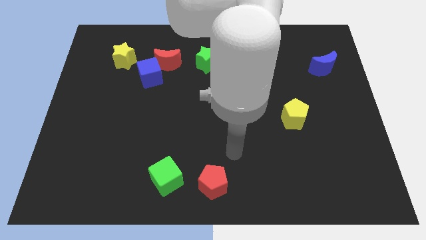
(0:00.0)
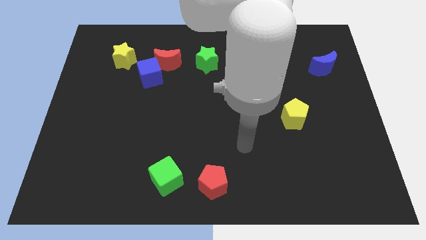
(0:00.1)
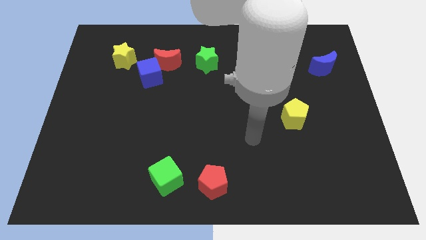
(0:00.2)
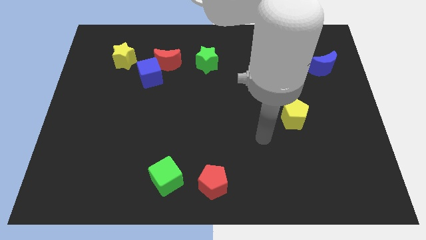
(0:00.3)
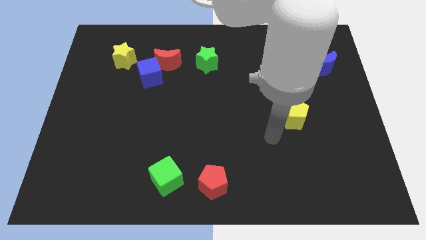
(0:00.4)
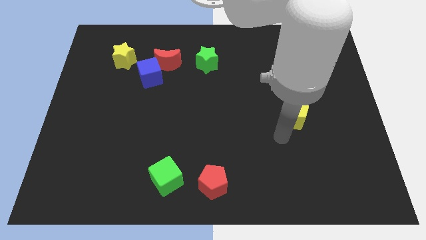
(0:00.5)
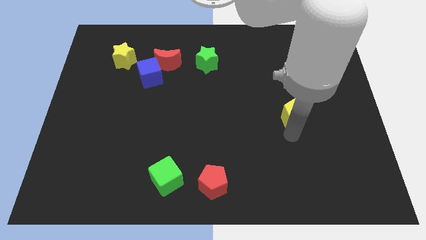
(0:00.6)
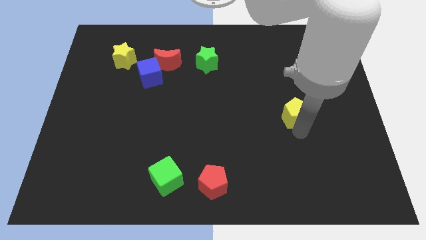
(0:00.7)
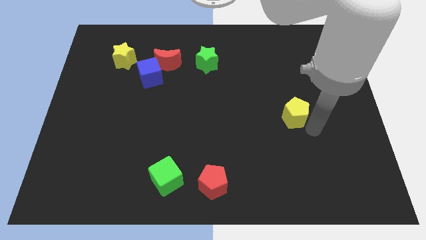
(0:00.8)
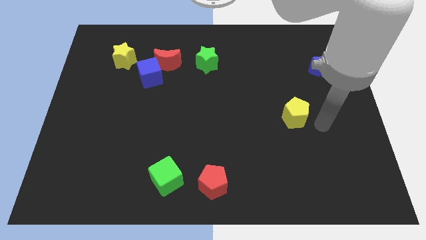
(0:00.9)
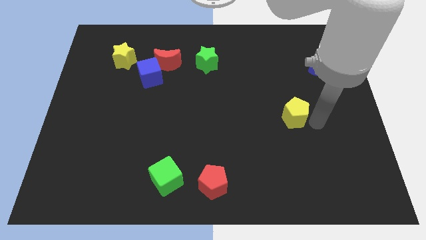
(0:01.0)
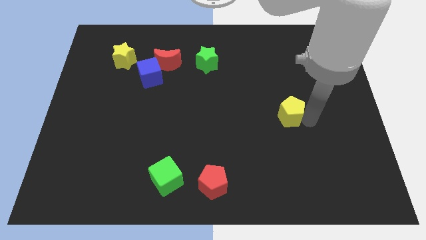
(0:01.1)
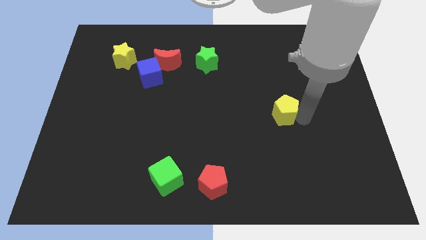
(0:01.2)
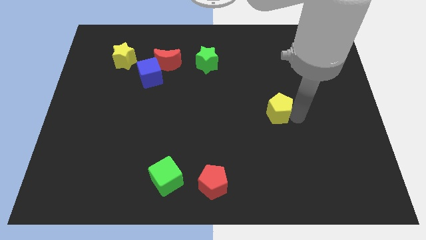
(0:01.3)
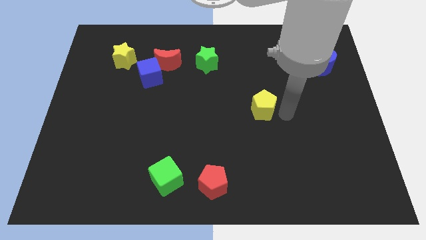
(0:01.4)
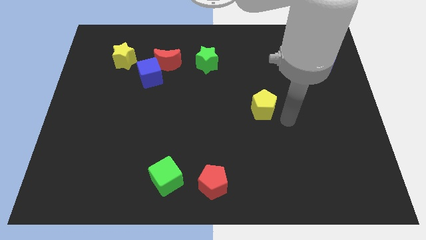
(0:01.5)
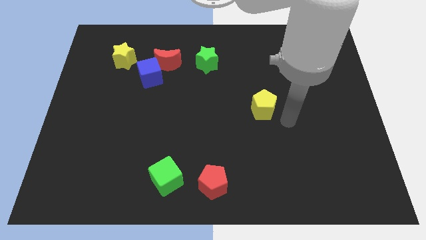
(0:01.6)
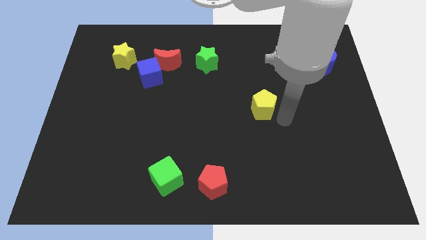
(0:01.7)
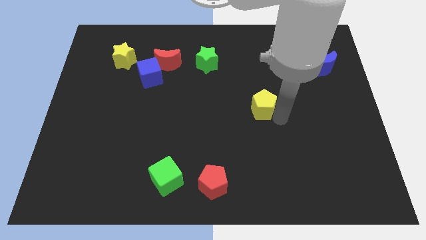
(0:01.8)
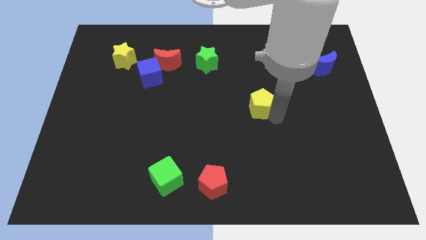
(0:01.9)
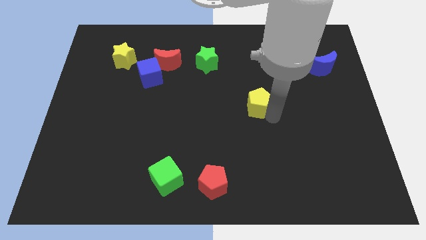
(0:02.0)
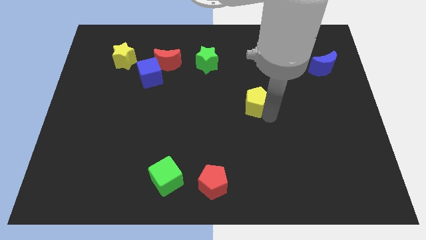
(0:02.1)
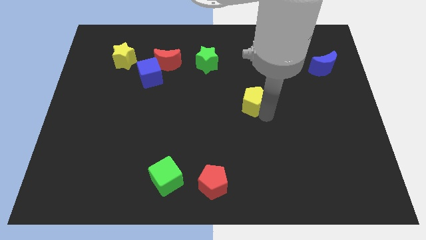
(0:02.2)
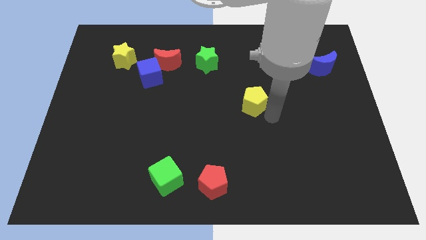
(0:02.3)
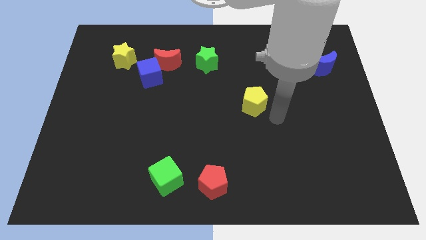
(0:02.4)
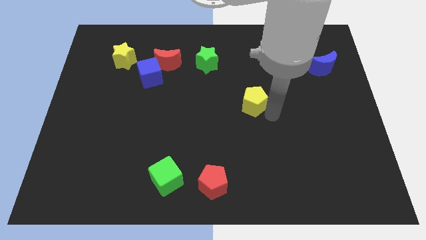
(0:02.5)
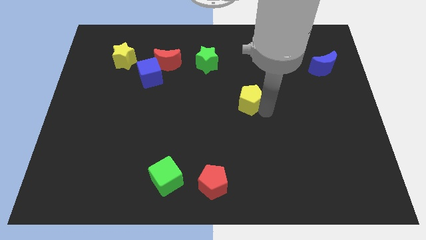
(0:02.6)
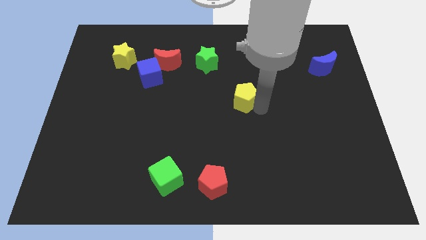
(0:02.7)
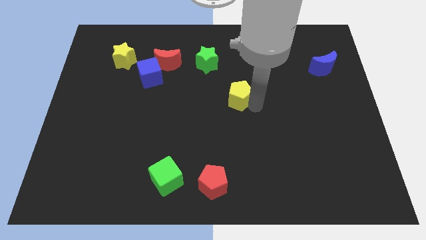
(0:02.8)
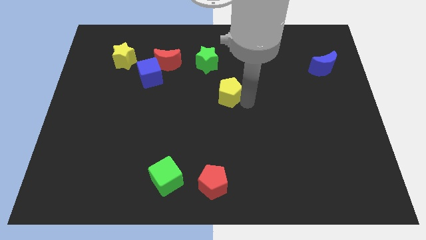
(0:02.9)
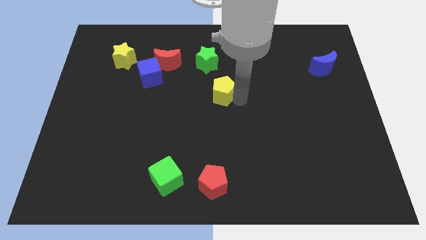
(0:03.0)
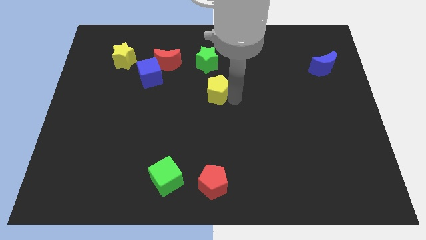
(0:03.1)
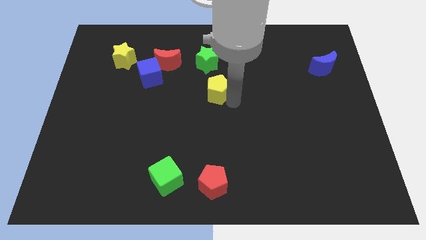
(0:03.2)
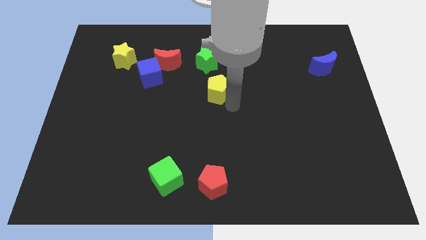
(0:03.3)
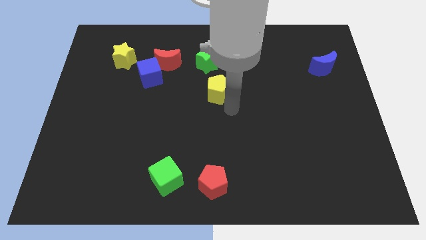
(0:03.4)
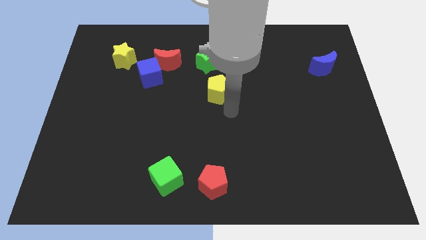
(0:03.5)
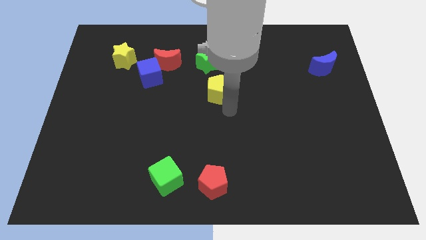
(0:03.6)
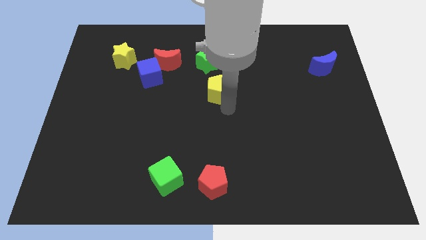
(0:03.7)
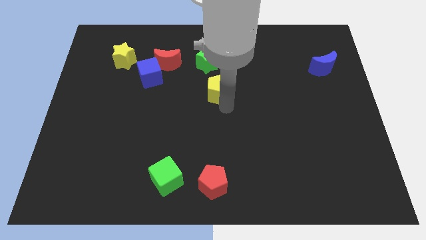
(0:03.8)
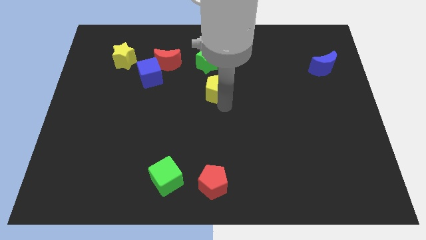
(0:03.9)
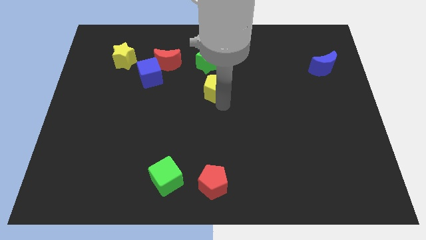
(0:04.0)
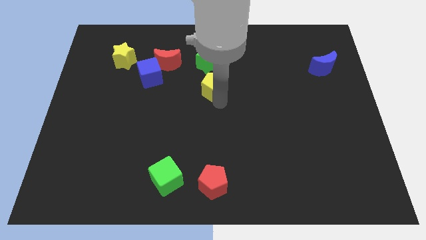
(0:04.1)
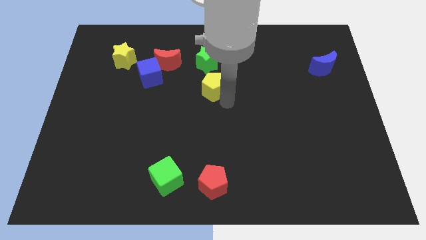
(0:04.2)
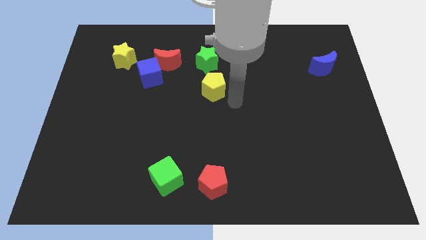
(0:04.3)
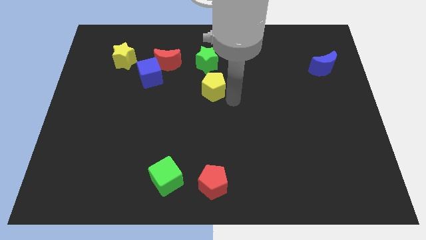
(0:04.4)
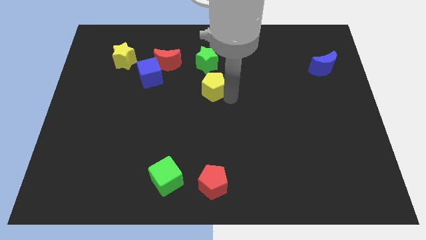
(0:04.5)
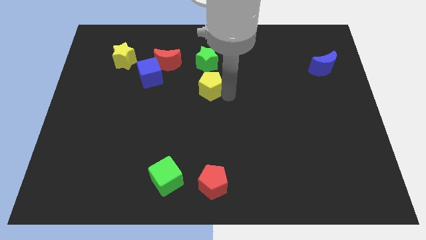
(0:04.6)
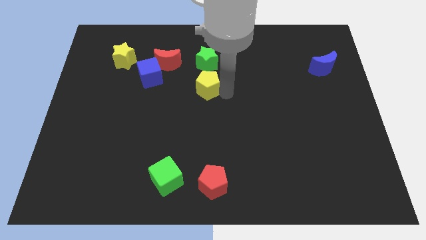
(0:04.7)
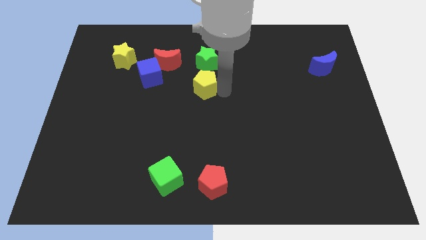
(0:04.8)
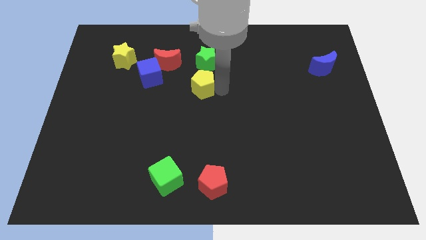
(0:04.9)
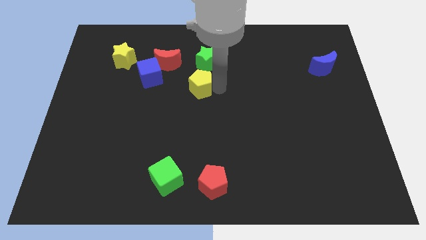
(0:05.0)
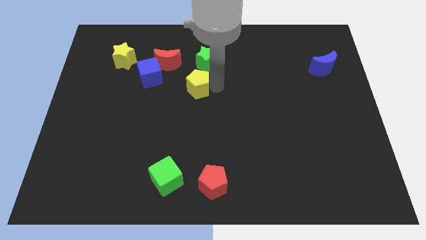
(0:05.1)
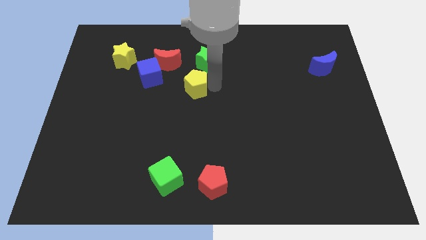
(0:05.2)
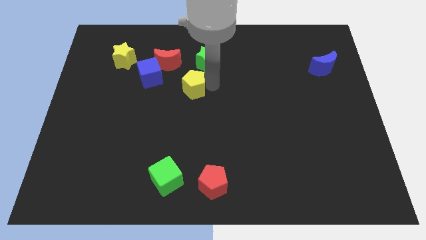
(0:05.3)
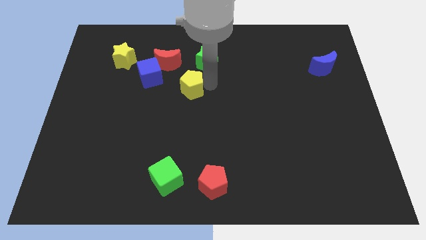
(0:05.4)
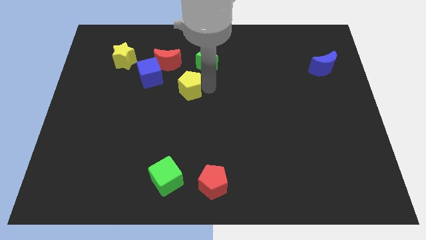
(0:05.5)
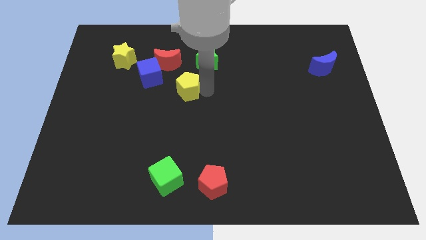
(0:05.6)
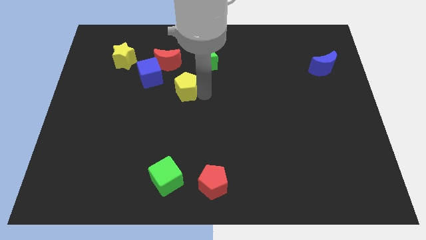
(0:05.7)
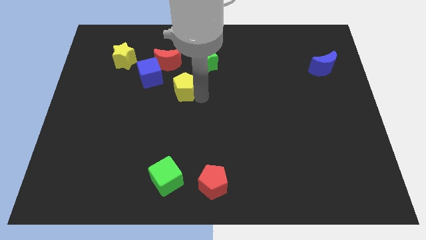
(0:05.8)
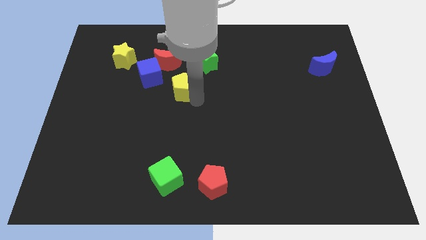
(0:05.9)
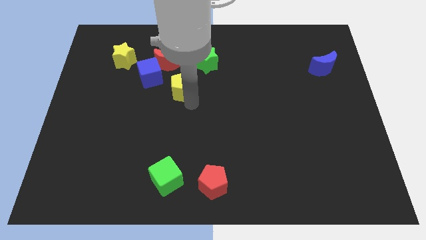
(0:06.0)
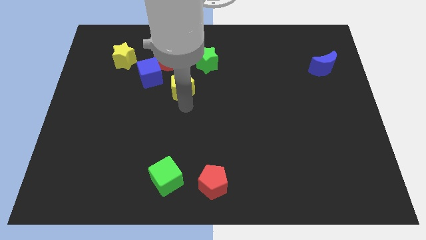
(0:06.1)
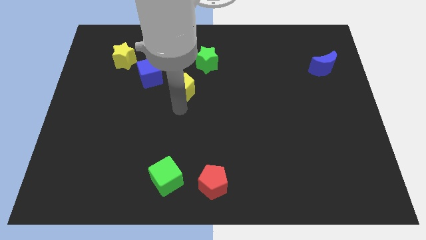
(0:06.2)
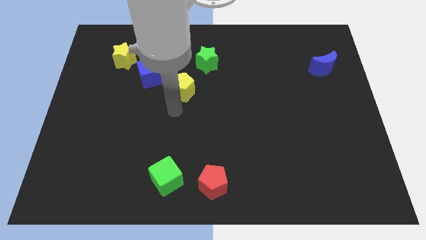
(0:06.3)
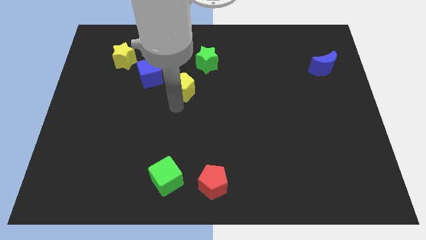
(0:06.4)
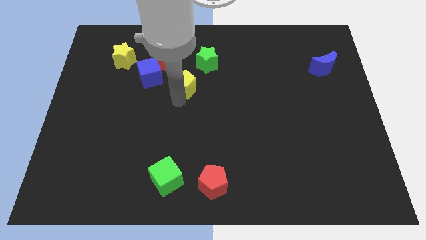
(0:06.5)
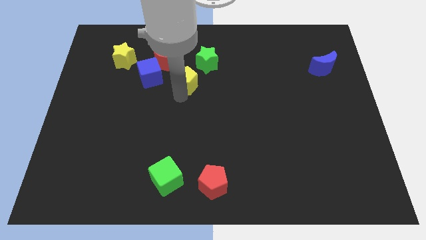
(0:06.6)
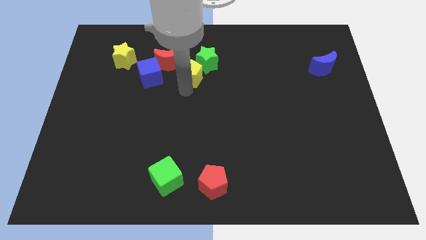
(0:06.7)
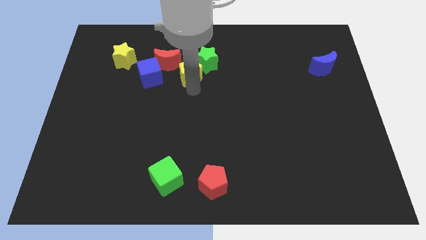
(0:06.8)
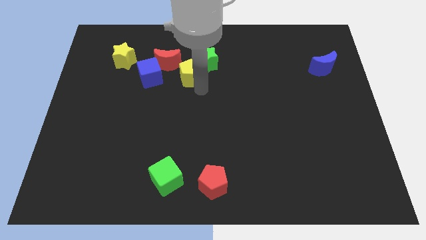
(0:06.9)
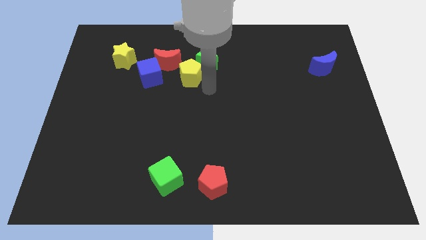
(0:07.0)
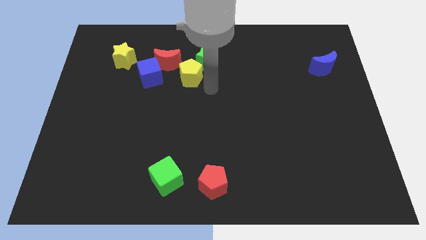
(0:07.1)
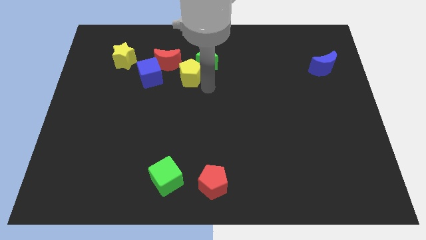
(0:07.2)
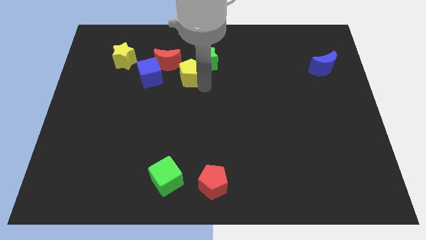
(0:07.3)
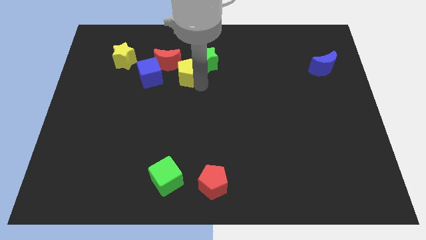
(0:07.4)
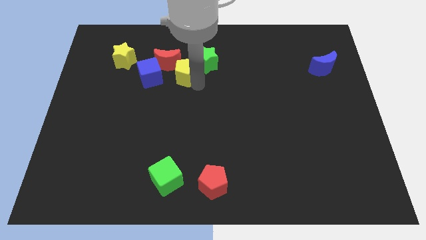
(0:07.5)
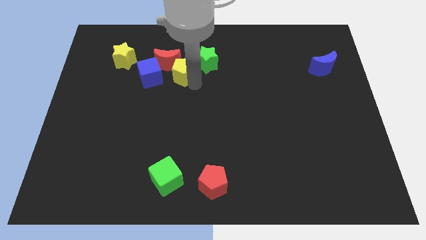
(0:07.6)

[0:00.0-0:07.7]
slide the yellow pentagon close to the red moon
